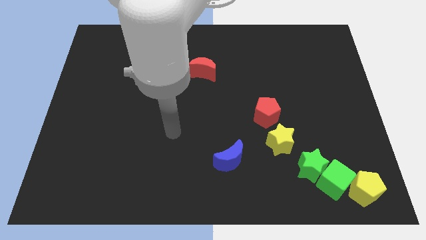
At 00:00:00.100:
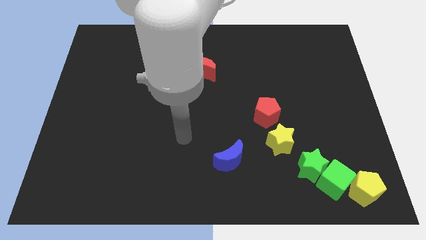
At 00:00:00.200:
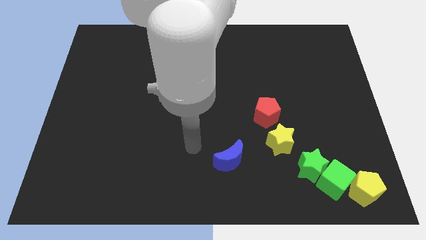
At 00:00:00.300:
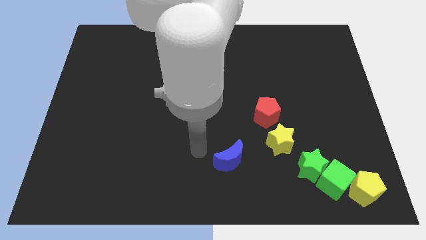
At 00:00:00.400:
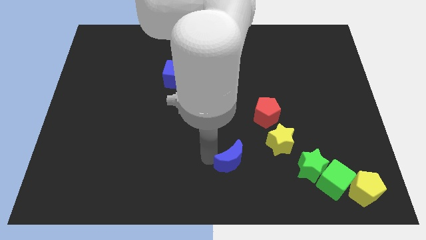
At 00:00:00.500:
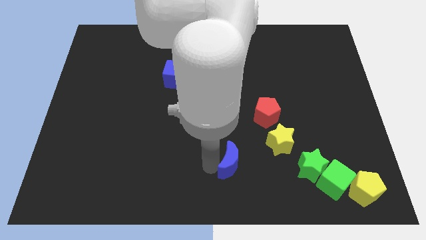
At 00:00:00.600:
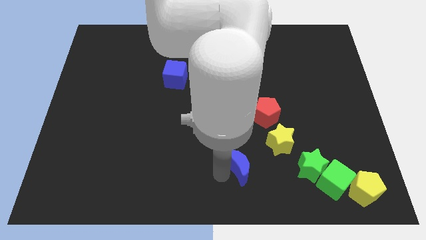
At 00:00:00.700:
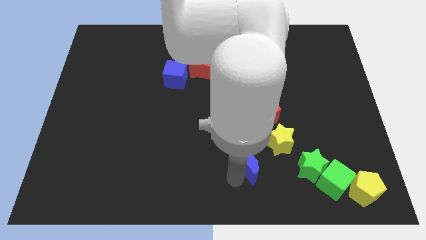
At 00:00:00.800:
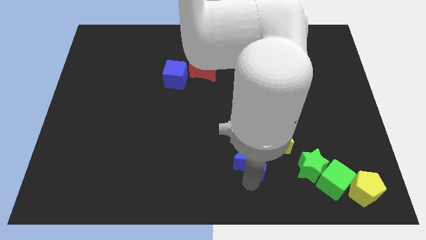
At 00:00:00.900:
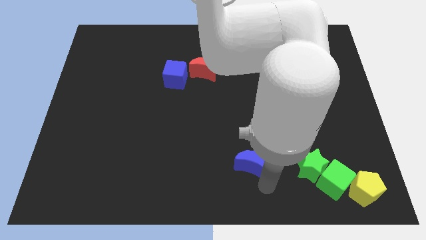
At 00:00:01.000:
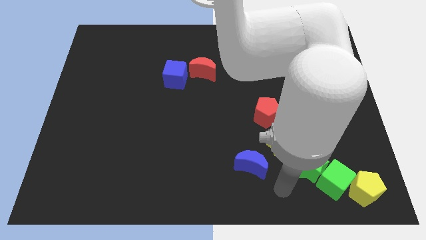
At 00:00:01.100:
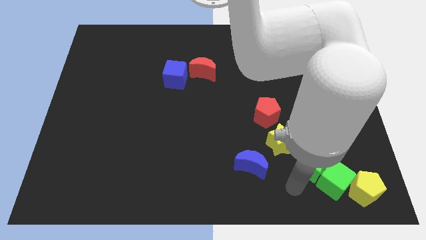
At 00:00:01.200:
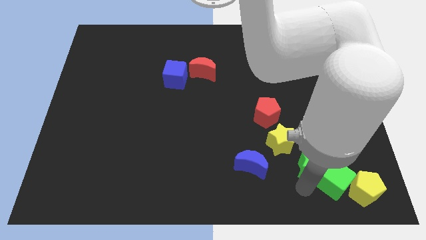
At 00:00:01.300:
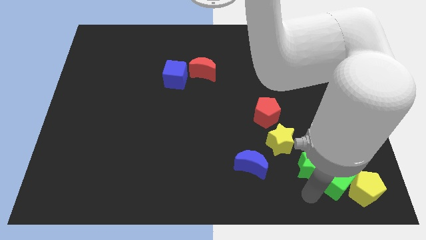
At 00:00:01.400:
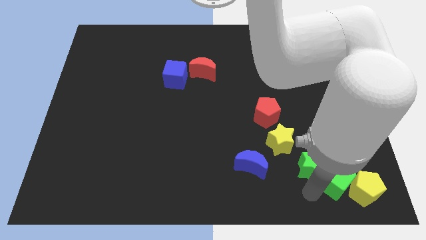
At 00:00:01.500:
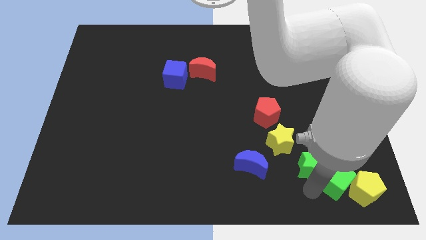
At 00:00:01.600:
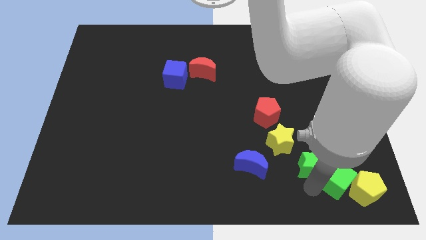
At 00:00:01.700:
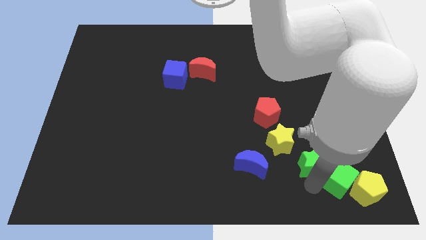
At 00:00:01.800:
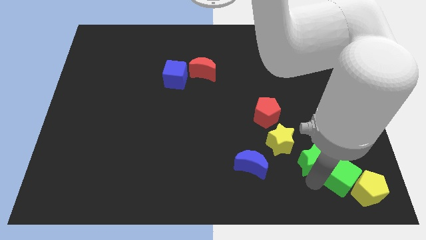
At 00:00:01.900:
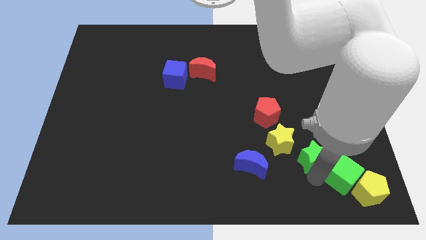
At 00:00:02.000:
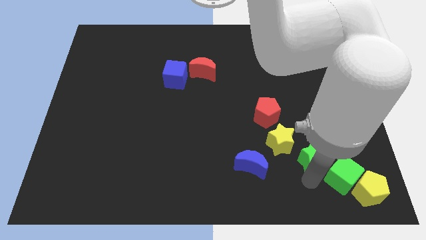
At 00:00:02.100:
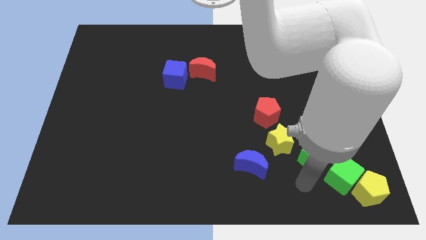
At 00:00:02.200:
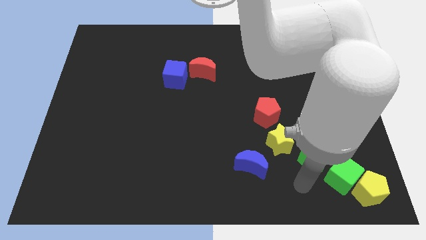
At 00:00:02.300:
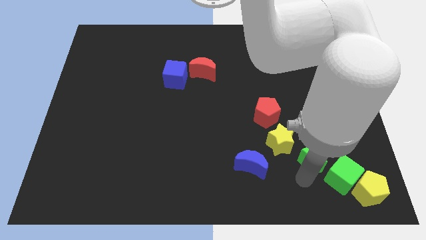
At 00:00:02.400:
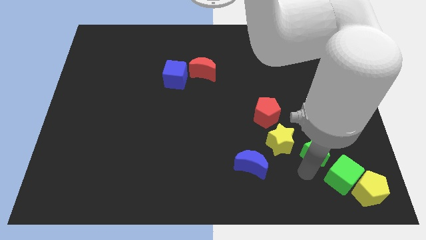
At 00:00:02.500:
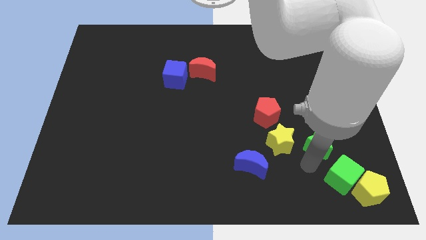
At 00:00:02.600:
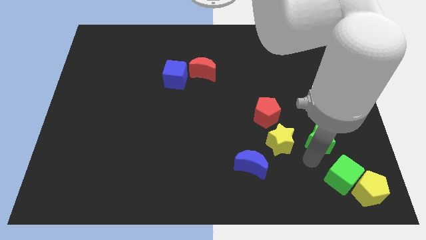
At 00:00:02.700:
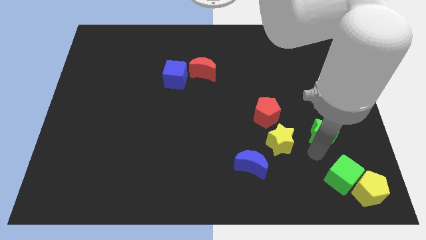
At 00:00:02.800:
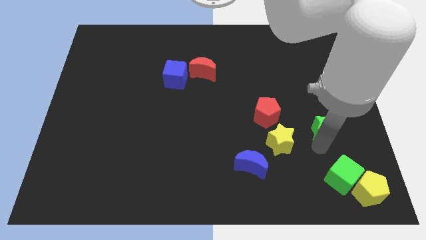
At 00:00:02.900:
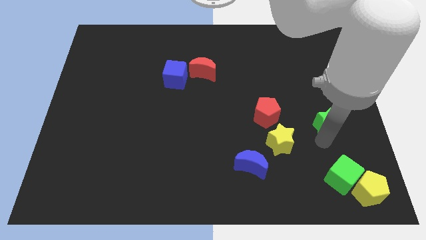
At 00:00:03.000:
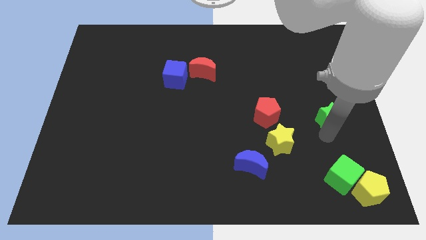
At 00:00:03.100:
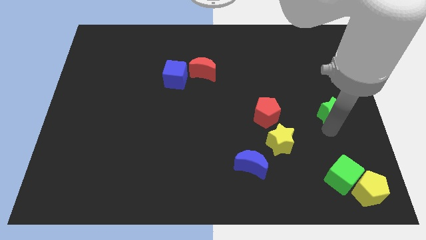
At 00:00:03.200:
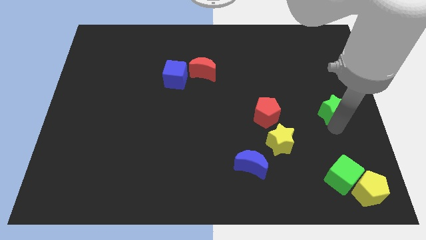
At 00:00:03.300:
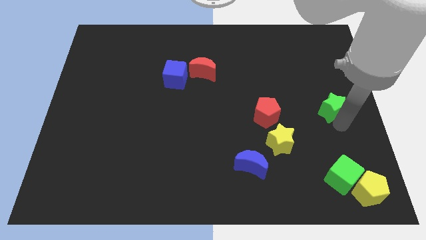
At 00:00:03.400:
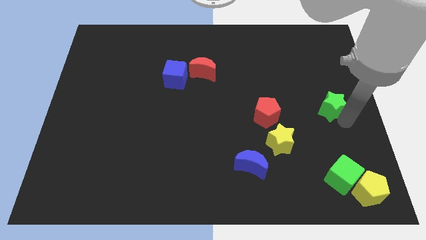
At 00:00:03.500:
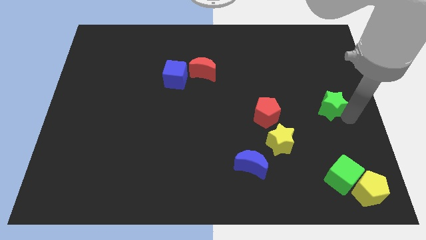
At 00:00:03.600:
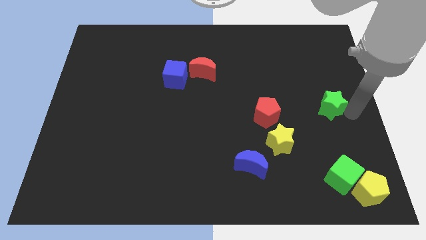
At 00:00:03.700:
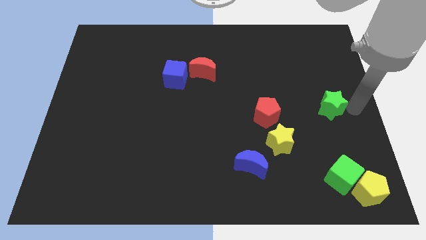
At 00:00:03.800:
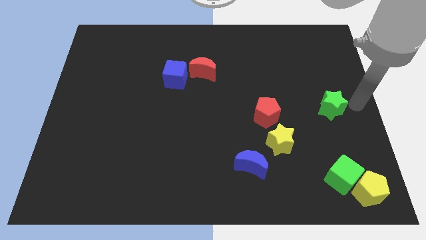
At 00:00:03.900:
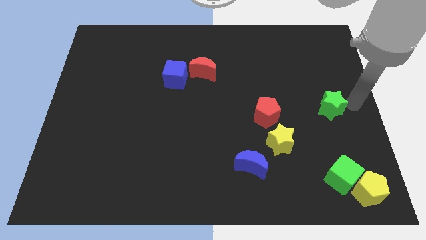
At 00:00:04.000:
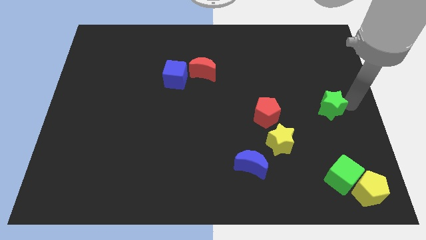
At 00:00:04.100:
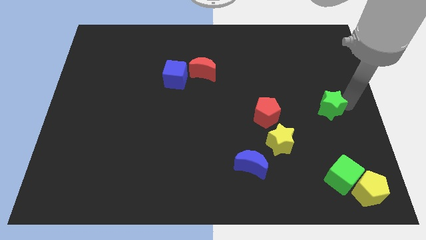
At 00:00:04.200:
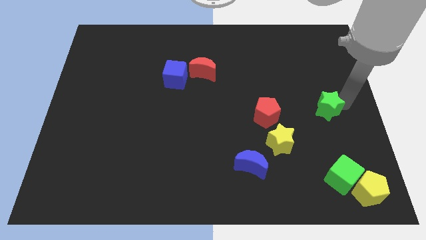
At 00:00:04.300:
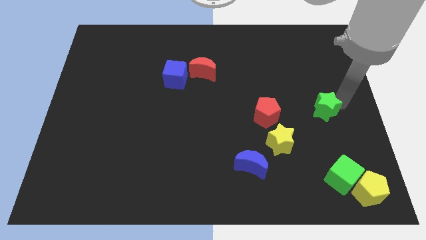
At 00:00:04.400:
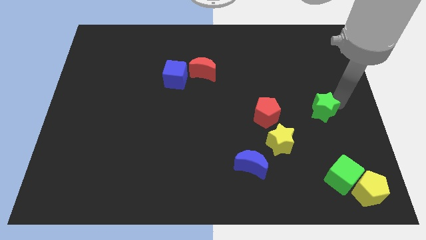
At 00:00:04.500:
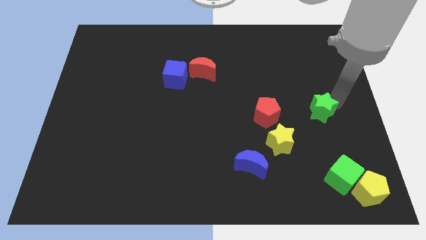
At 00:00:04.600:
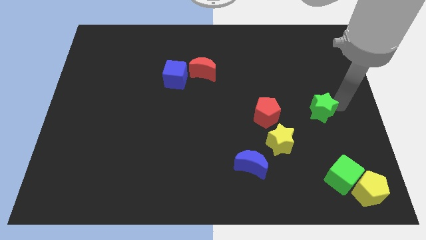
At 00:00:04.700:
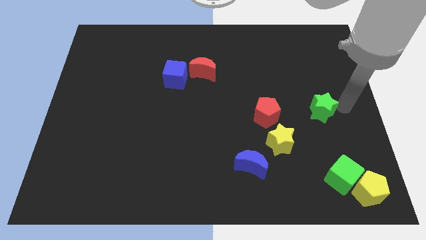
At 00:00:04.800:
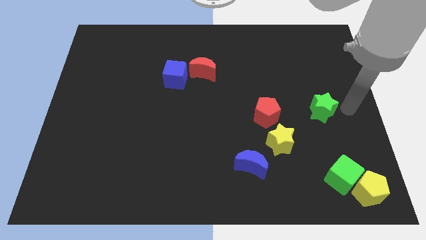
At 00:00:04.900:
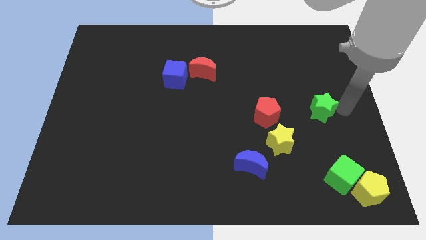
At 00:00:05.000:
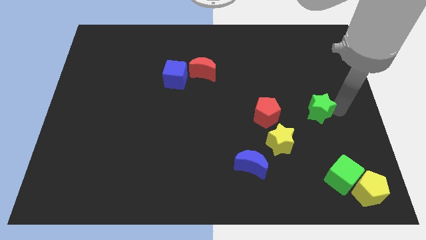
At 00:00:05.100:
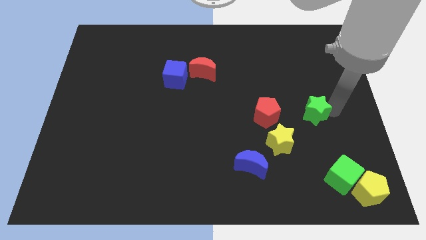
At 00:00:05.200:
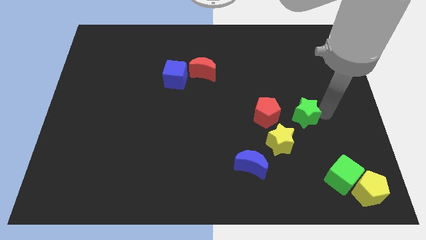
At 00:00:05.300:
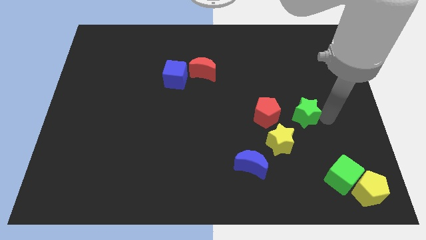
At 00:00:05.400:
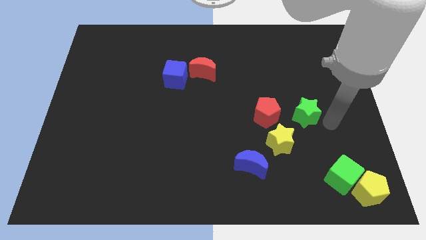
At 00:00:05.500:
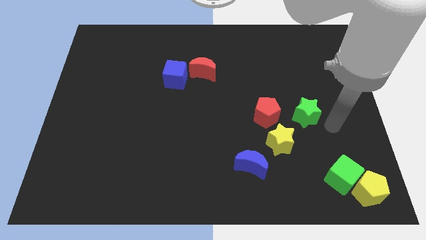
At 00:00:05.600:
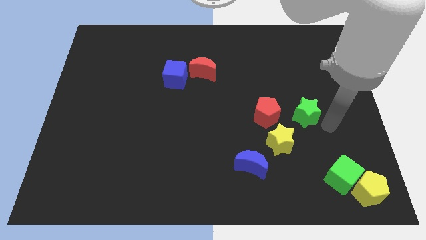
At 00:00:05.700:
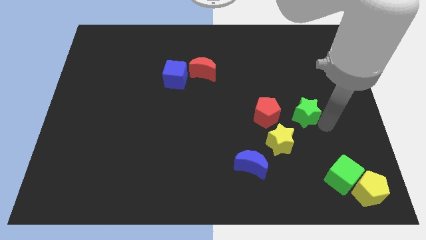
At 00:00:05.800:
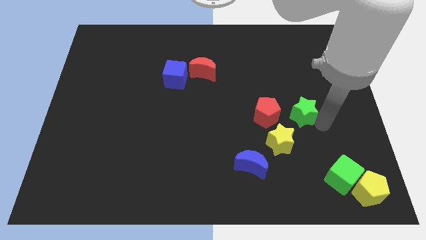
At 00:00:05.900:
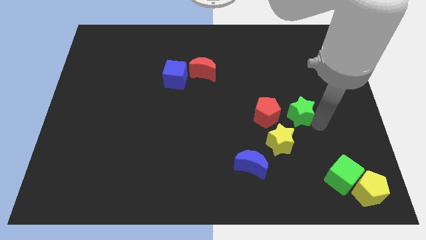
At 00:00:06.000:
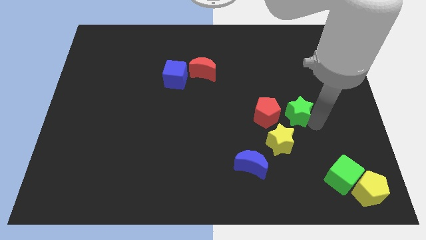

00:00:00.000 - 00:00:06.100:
move the green star to the top side of the yellow star
